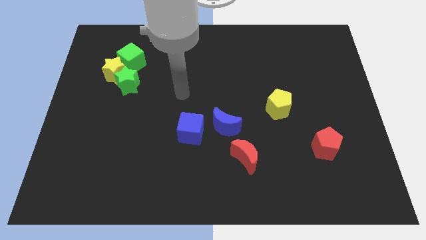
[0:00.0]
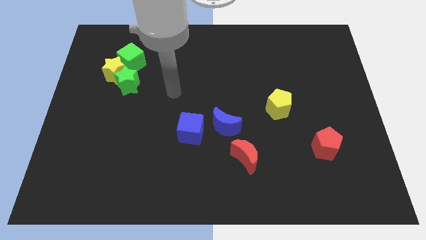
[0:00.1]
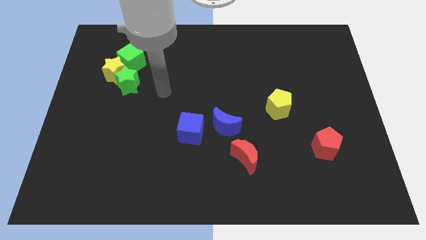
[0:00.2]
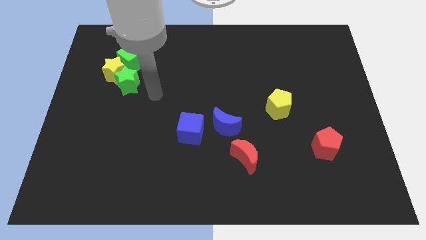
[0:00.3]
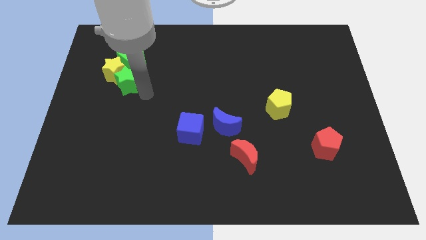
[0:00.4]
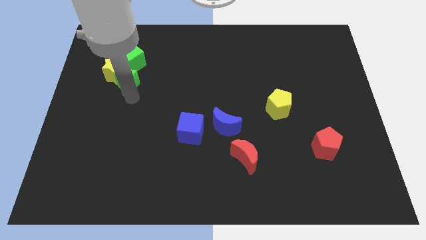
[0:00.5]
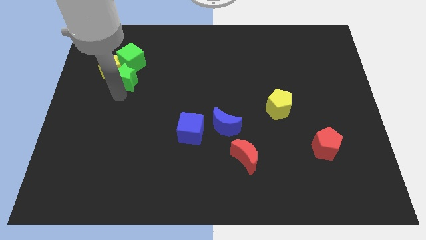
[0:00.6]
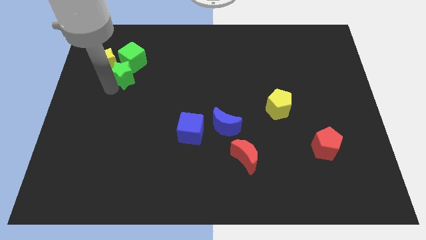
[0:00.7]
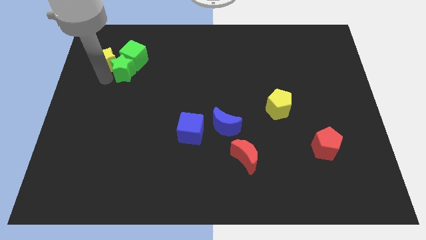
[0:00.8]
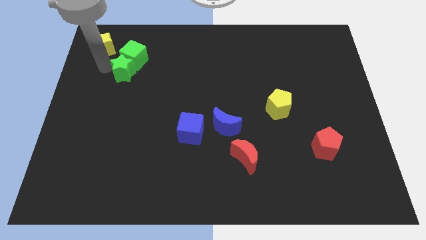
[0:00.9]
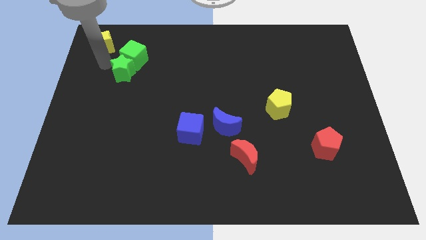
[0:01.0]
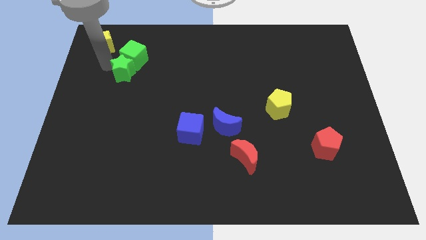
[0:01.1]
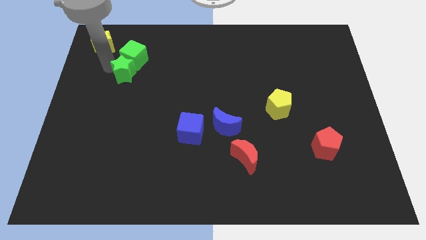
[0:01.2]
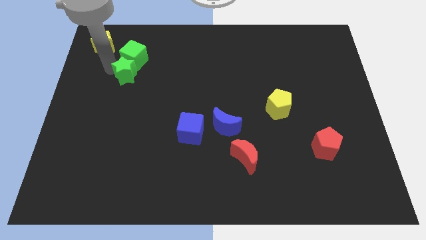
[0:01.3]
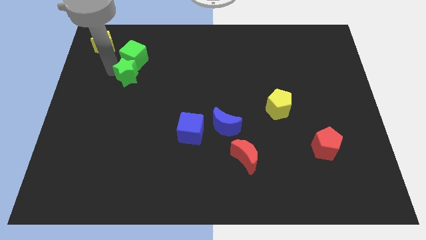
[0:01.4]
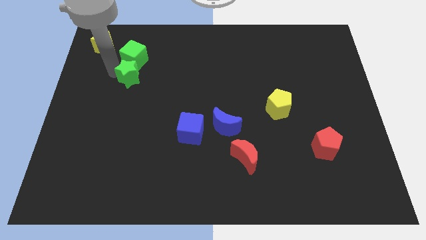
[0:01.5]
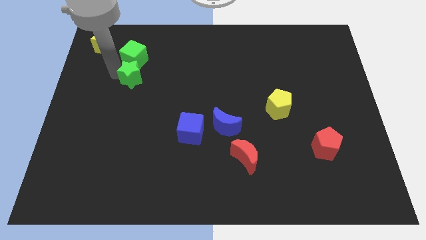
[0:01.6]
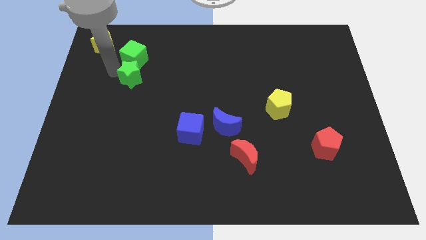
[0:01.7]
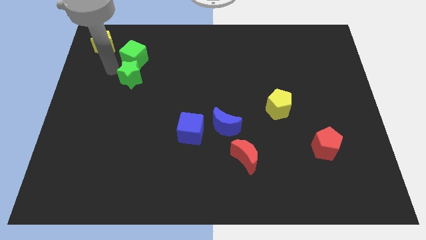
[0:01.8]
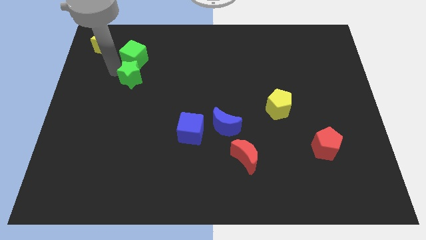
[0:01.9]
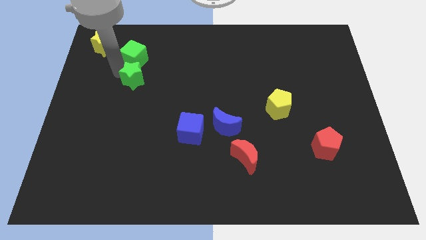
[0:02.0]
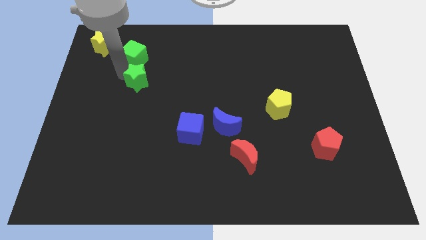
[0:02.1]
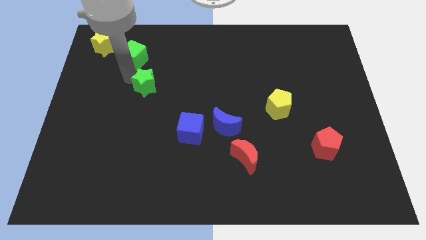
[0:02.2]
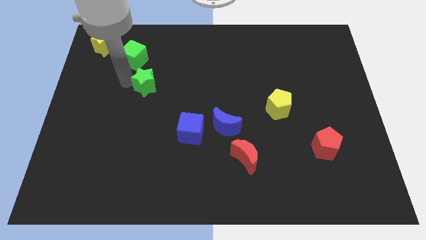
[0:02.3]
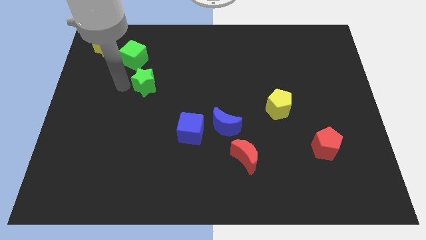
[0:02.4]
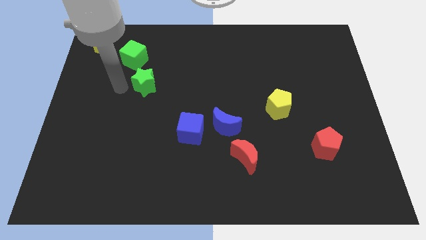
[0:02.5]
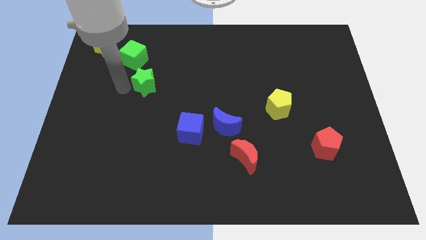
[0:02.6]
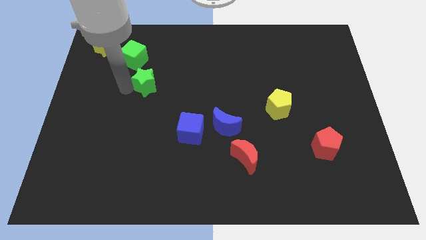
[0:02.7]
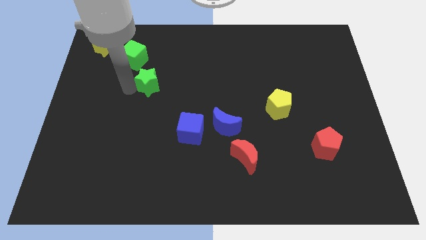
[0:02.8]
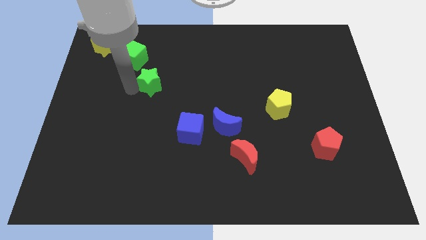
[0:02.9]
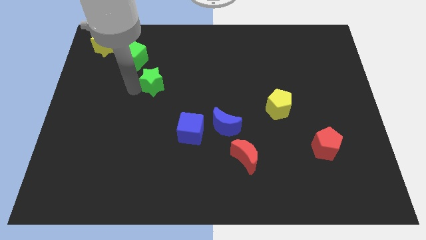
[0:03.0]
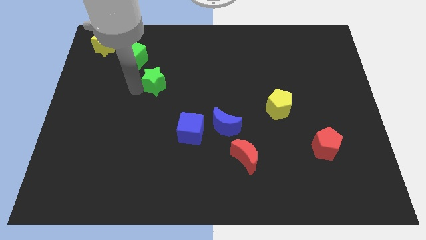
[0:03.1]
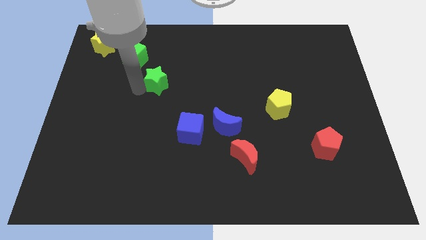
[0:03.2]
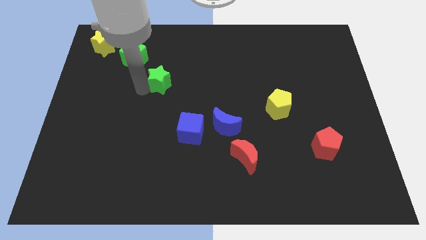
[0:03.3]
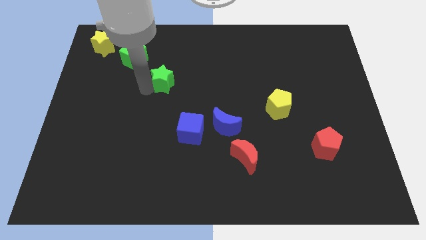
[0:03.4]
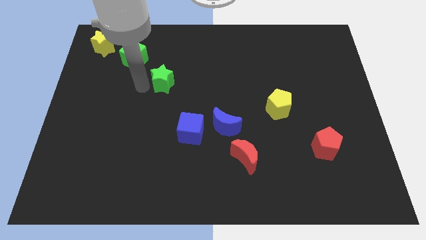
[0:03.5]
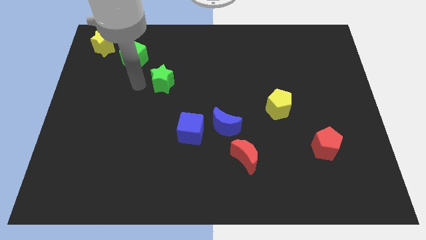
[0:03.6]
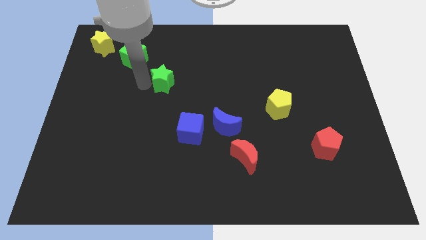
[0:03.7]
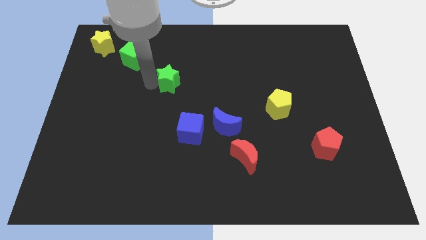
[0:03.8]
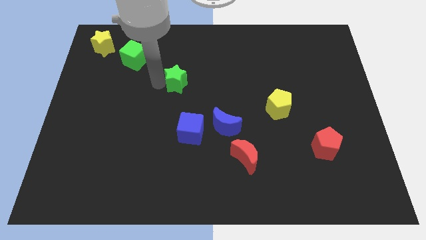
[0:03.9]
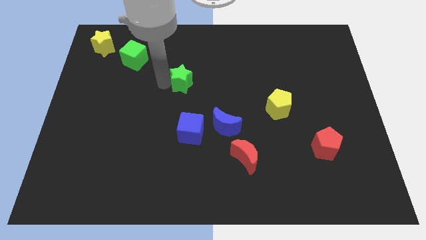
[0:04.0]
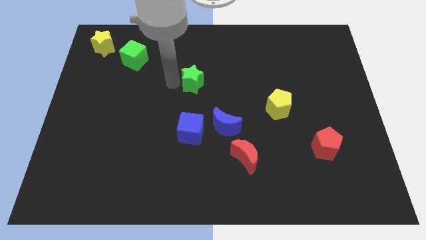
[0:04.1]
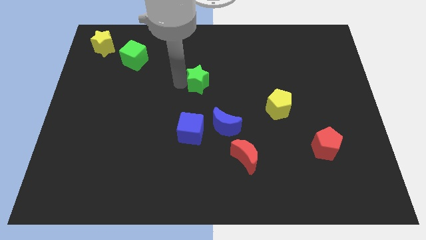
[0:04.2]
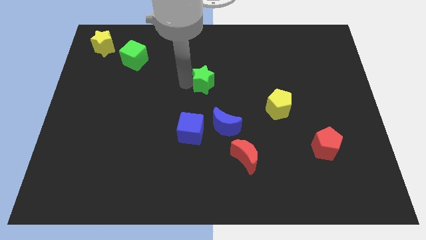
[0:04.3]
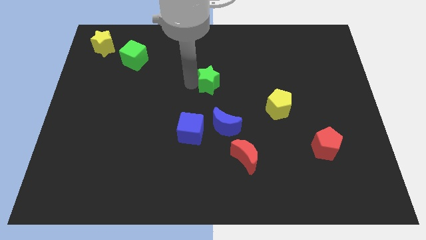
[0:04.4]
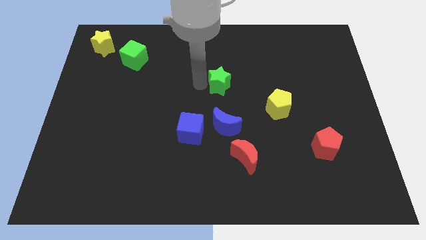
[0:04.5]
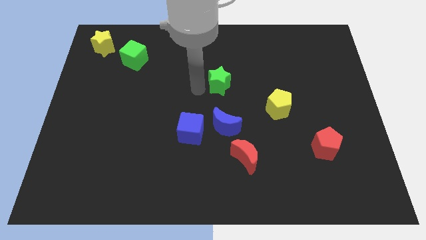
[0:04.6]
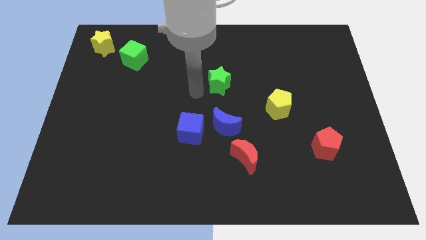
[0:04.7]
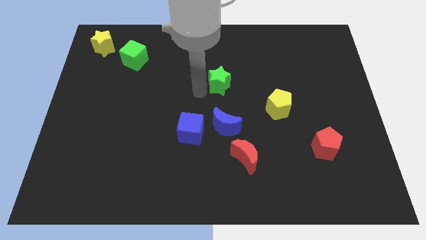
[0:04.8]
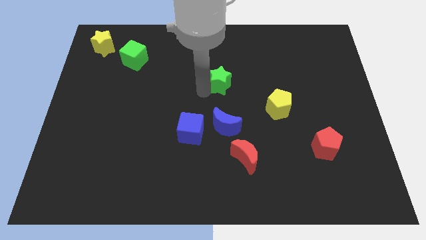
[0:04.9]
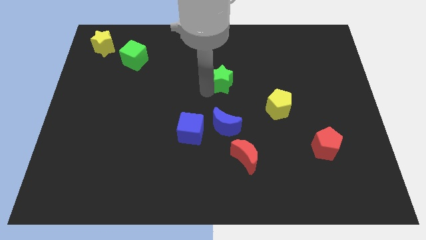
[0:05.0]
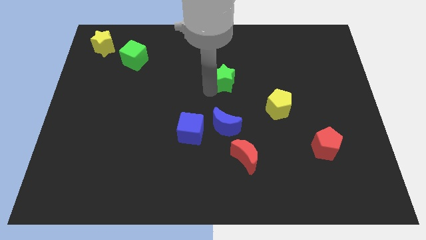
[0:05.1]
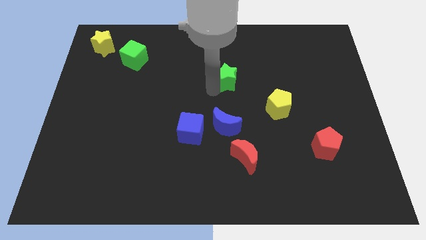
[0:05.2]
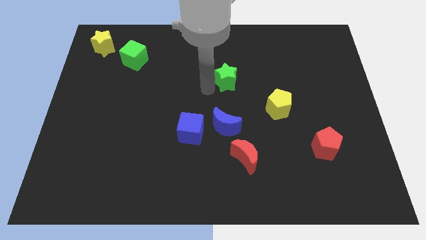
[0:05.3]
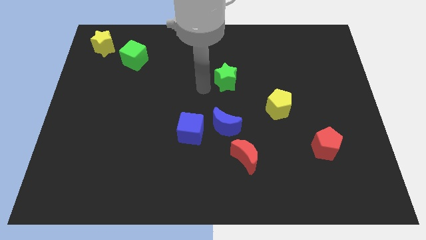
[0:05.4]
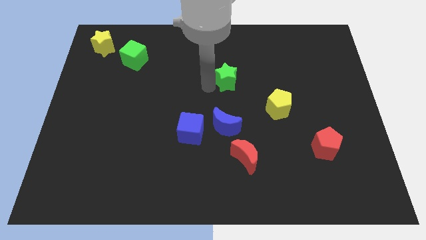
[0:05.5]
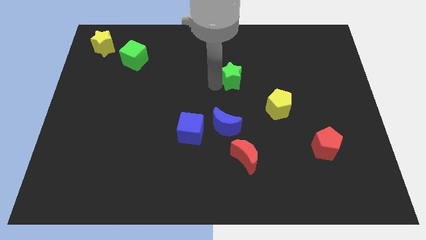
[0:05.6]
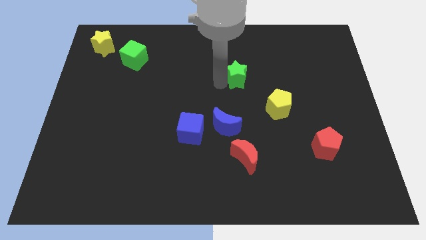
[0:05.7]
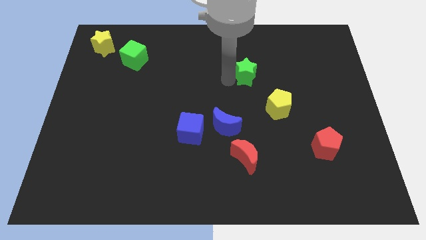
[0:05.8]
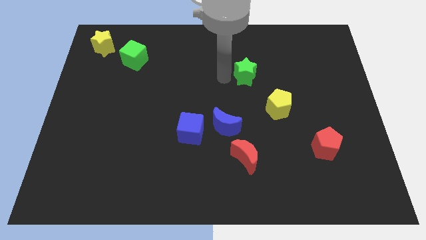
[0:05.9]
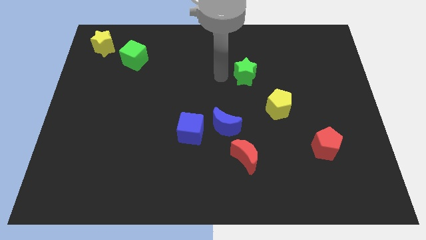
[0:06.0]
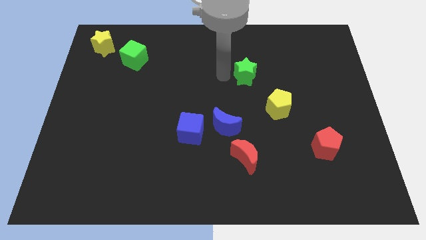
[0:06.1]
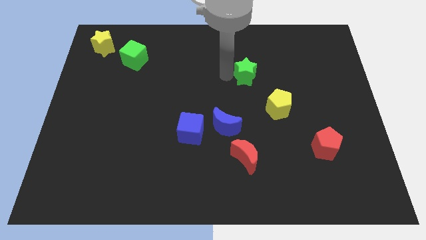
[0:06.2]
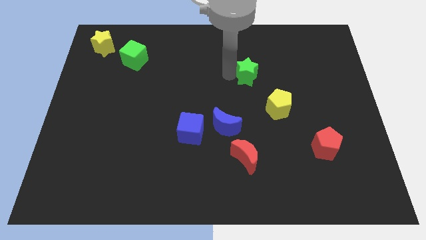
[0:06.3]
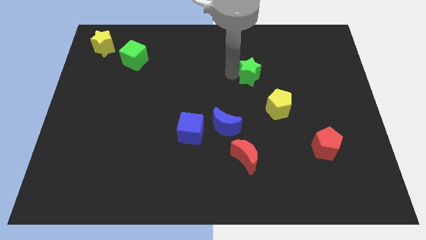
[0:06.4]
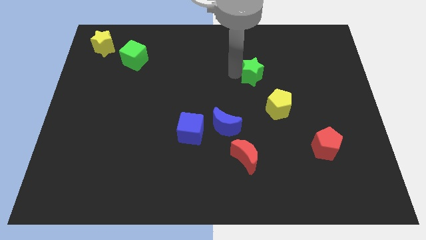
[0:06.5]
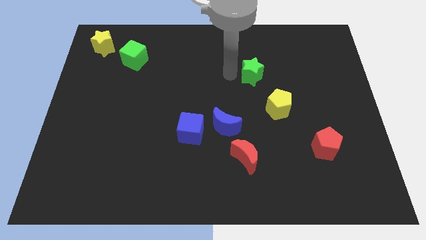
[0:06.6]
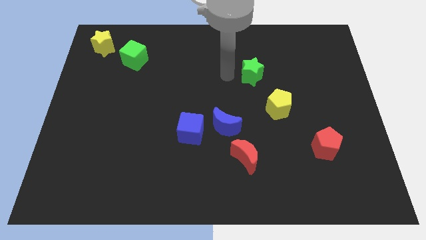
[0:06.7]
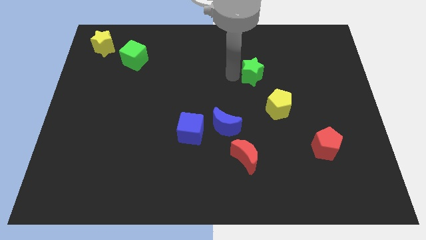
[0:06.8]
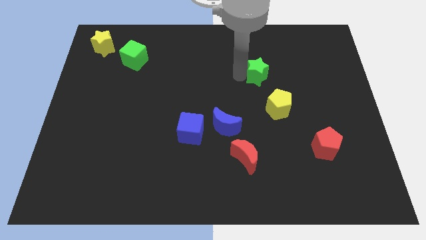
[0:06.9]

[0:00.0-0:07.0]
push the green star to the top of the yellow pentagon

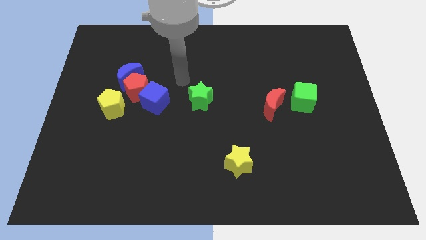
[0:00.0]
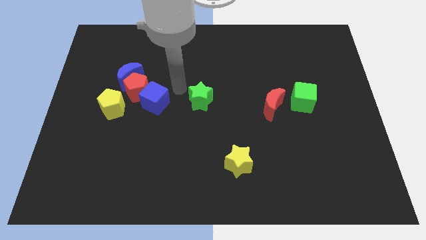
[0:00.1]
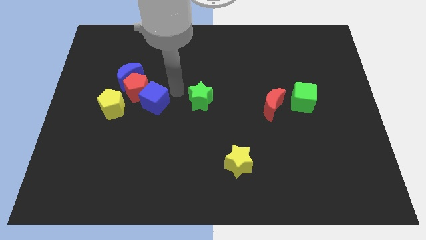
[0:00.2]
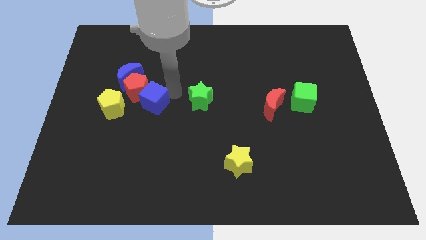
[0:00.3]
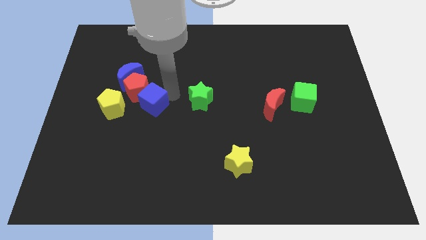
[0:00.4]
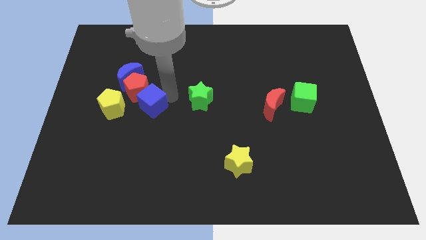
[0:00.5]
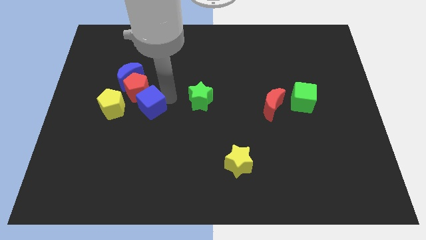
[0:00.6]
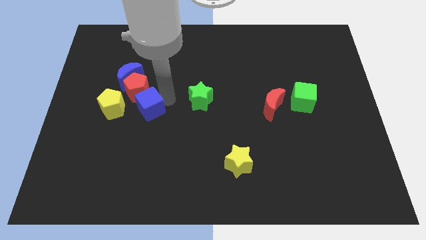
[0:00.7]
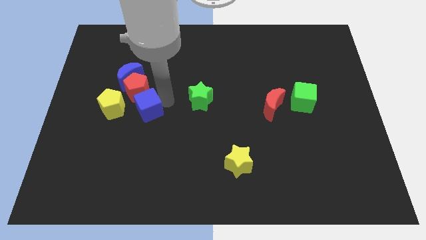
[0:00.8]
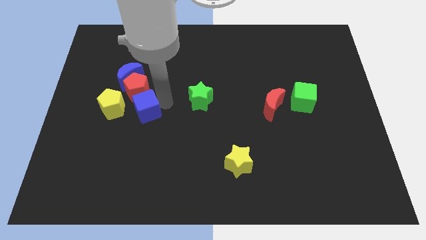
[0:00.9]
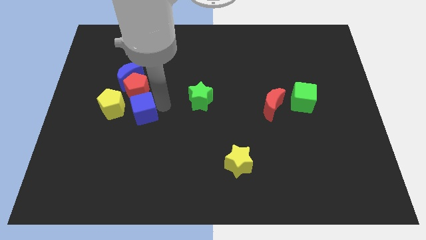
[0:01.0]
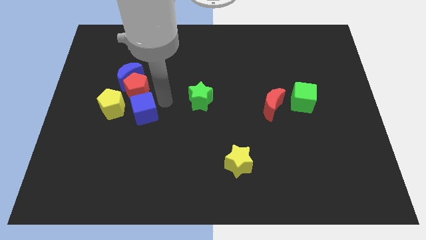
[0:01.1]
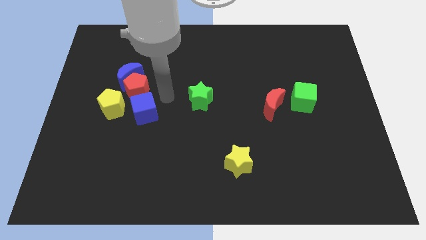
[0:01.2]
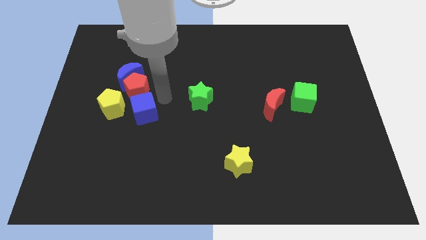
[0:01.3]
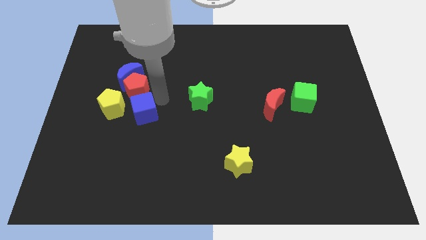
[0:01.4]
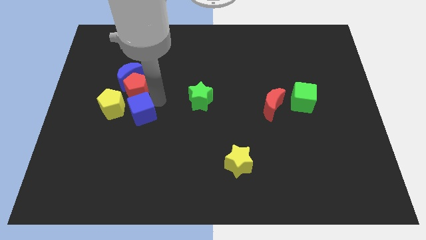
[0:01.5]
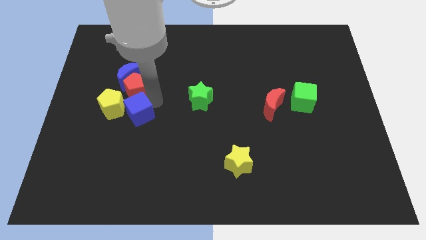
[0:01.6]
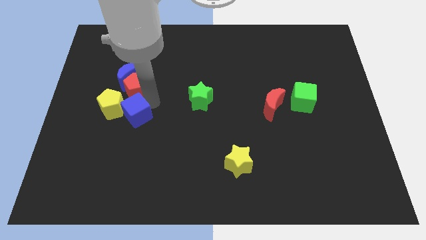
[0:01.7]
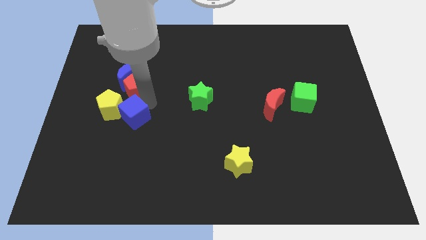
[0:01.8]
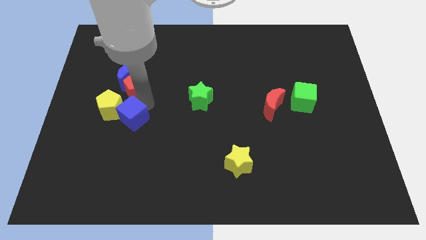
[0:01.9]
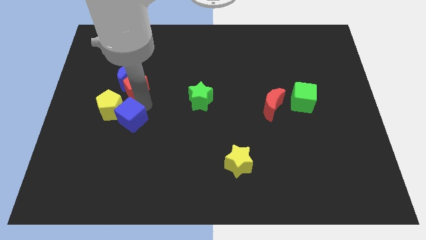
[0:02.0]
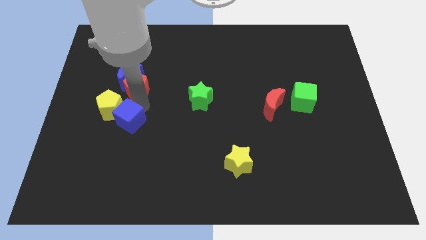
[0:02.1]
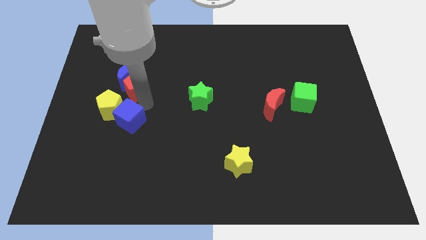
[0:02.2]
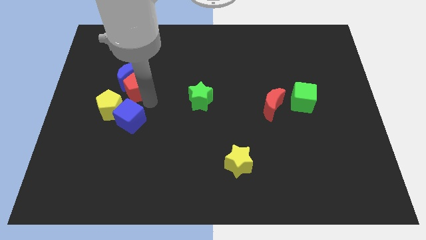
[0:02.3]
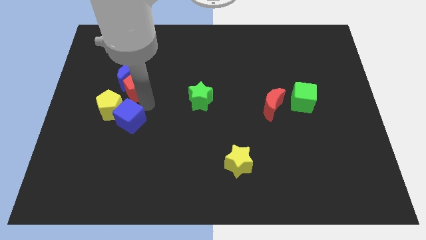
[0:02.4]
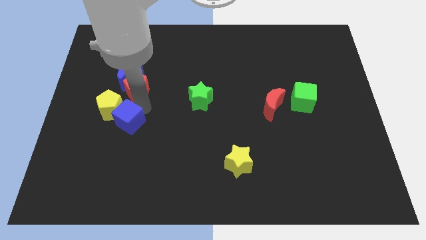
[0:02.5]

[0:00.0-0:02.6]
move the blue cube below the yellow pentagon
